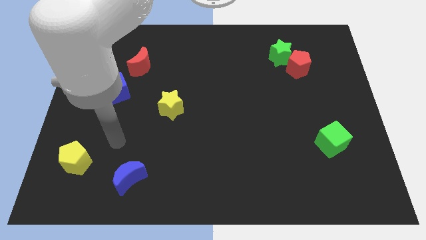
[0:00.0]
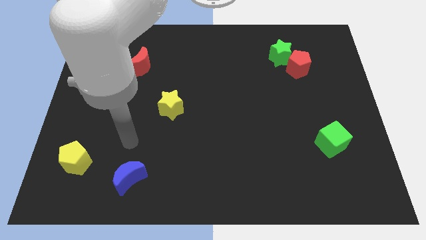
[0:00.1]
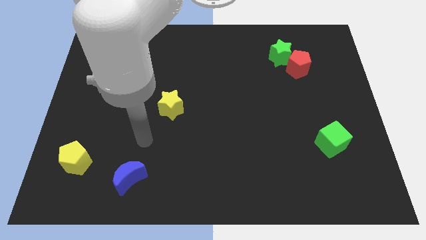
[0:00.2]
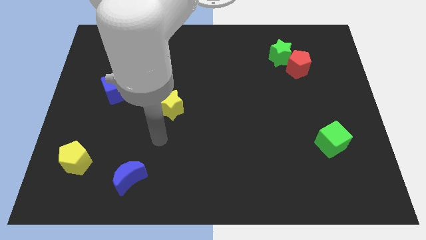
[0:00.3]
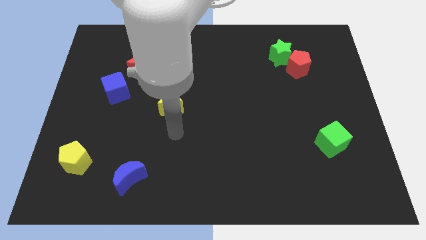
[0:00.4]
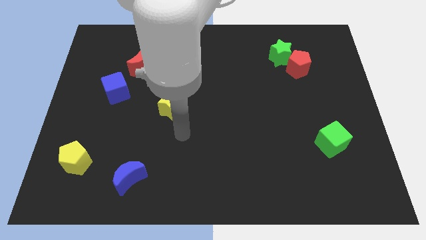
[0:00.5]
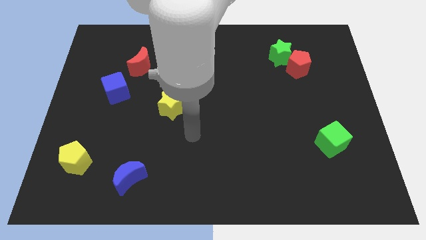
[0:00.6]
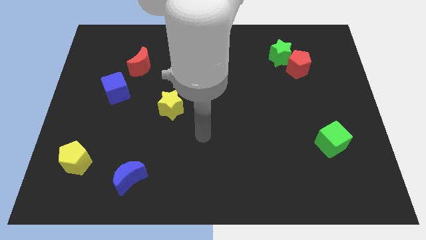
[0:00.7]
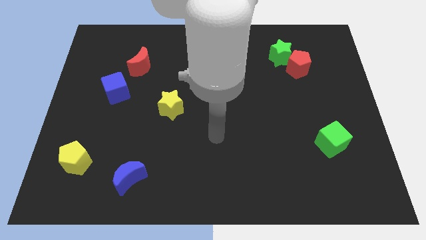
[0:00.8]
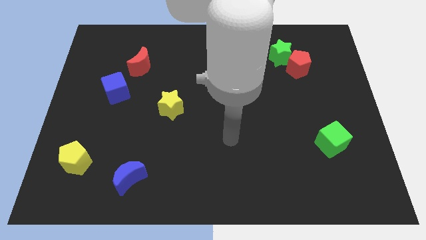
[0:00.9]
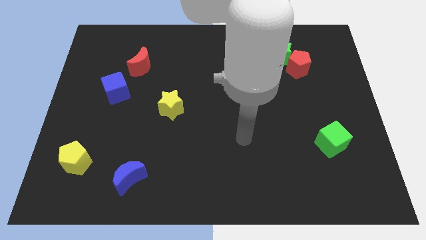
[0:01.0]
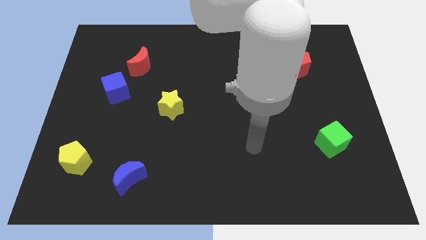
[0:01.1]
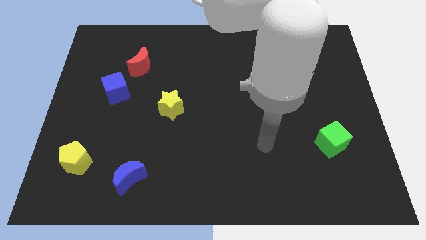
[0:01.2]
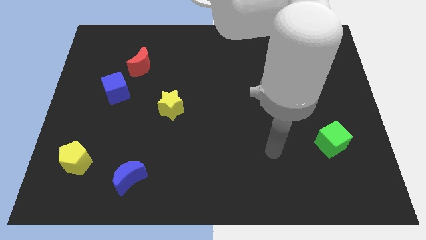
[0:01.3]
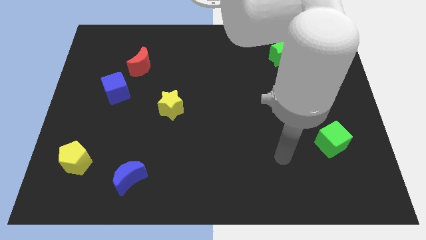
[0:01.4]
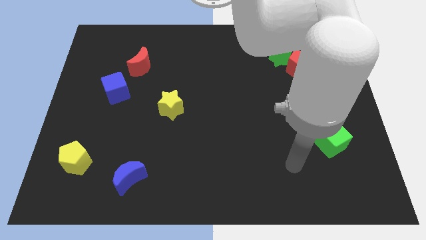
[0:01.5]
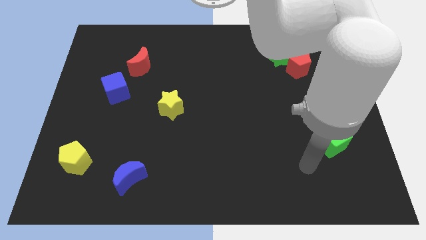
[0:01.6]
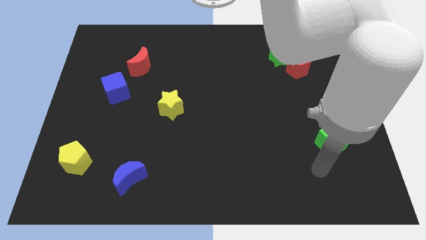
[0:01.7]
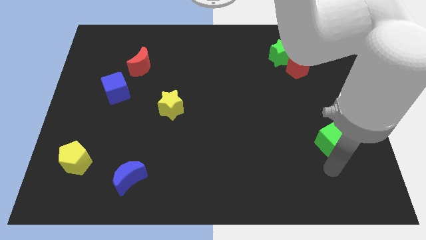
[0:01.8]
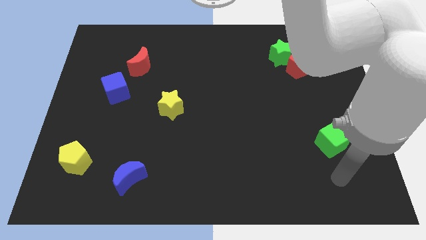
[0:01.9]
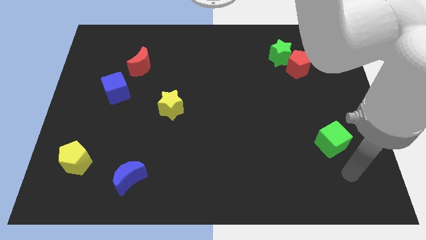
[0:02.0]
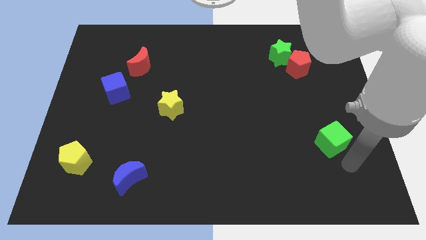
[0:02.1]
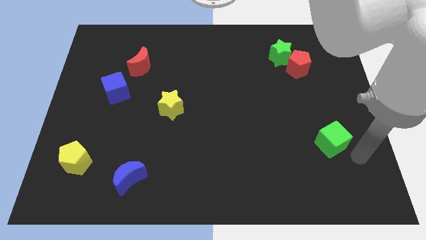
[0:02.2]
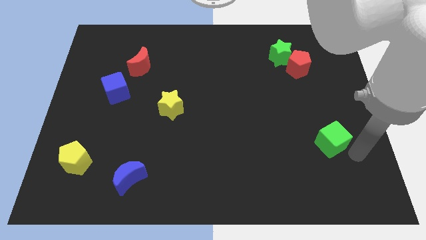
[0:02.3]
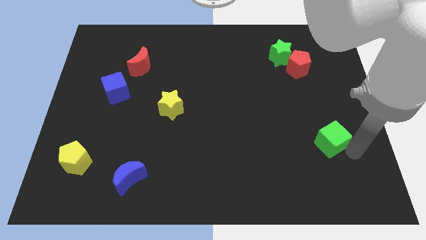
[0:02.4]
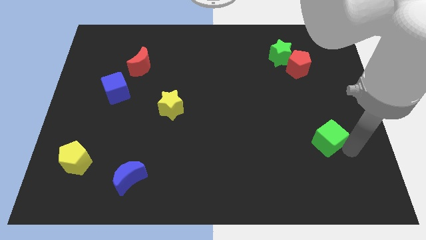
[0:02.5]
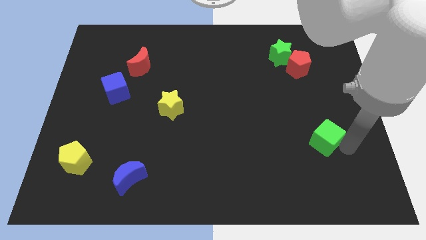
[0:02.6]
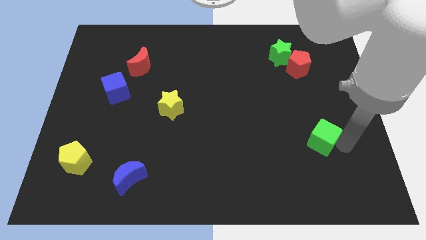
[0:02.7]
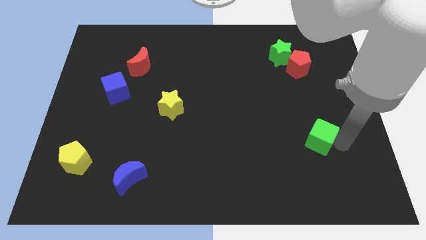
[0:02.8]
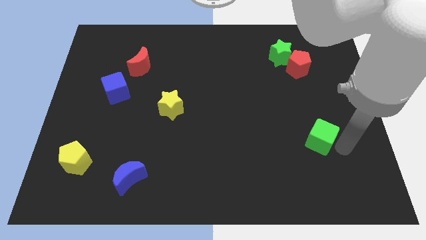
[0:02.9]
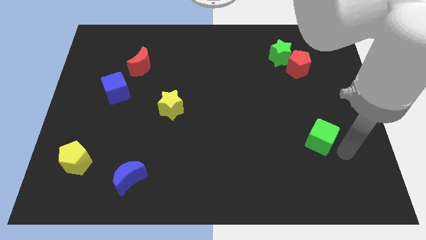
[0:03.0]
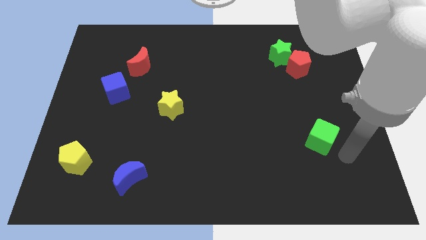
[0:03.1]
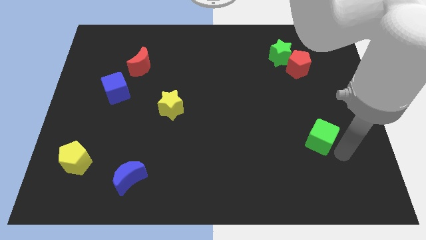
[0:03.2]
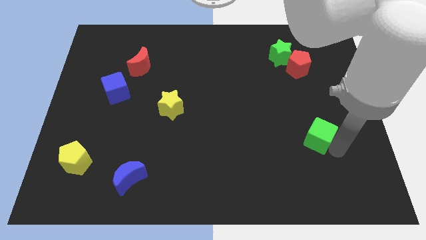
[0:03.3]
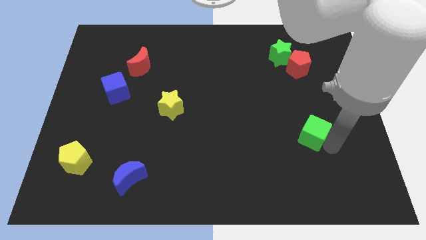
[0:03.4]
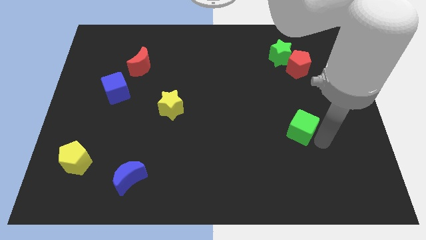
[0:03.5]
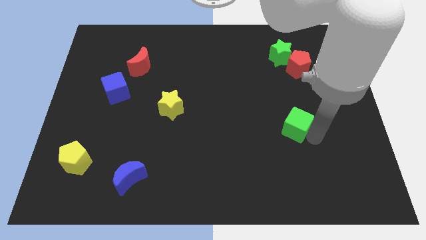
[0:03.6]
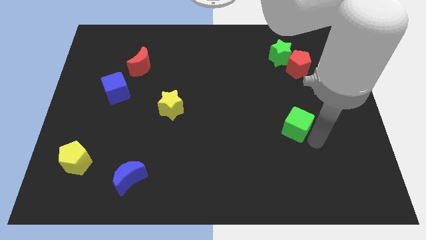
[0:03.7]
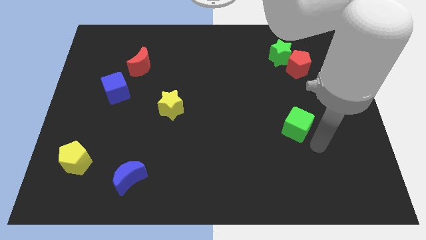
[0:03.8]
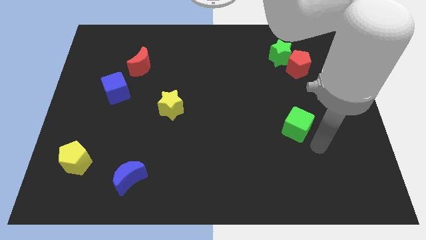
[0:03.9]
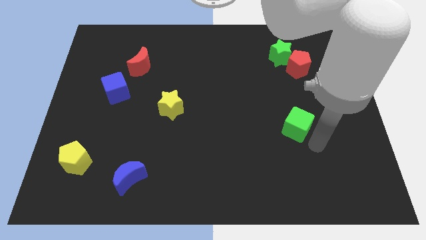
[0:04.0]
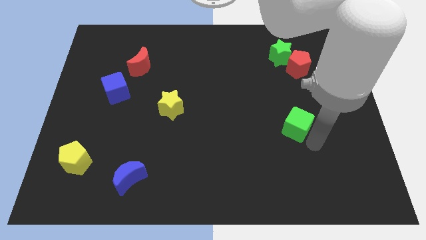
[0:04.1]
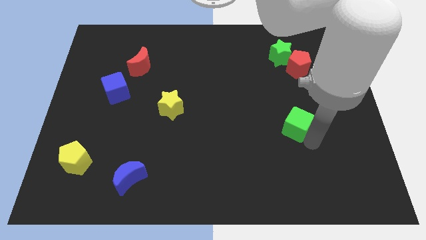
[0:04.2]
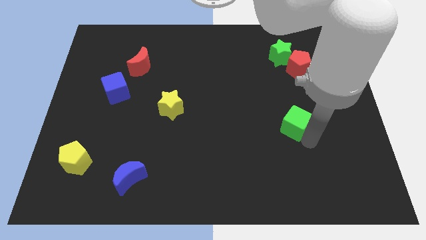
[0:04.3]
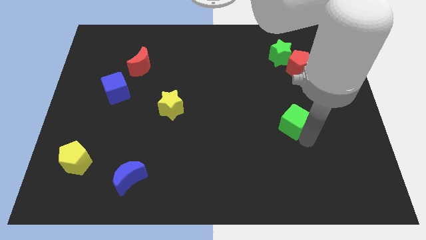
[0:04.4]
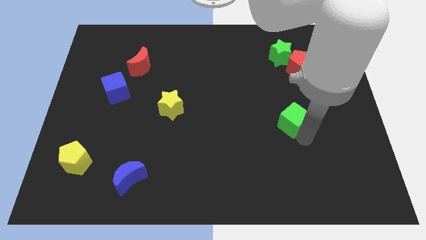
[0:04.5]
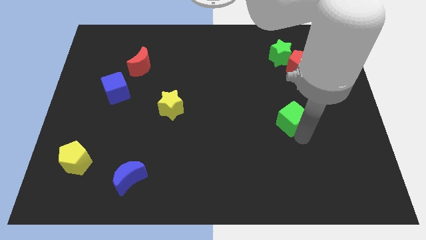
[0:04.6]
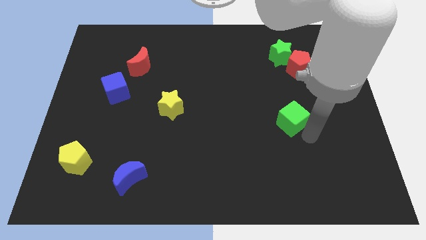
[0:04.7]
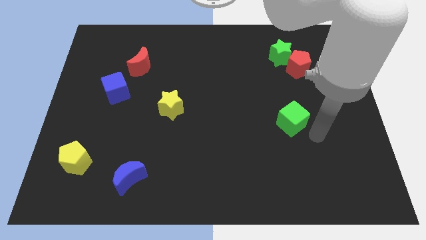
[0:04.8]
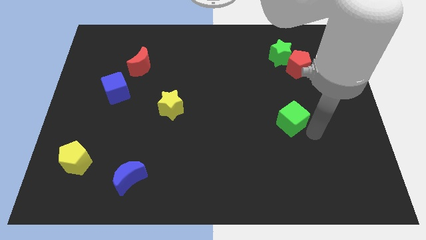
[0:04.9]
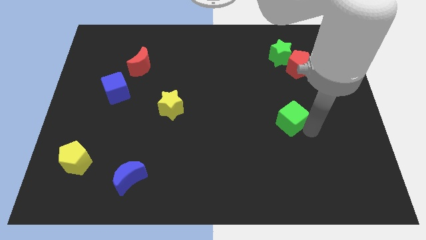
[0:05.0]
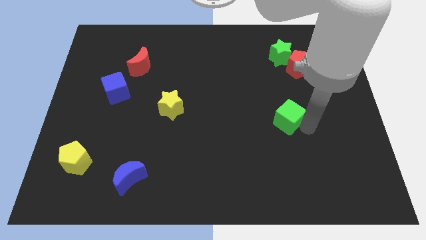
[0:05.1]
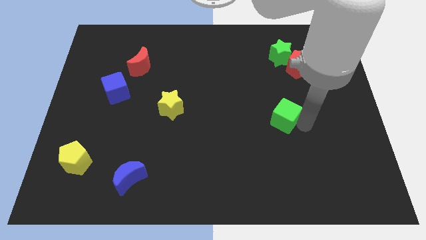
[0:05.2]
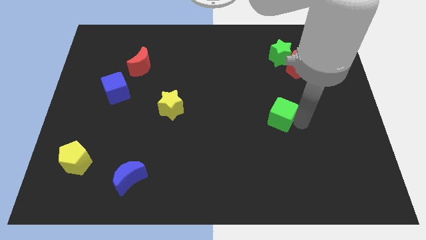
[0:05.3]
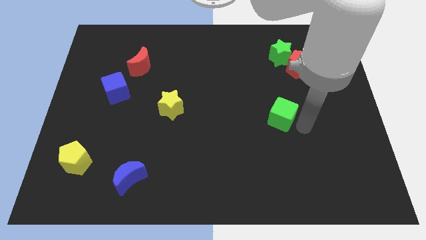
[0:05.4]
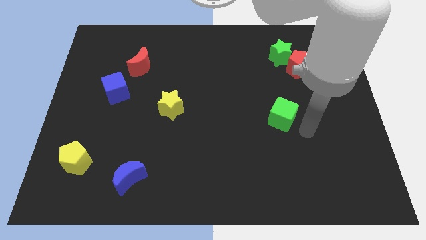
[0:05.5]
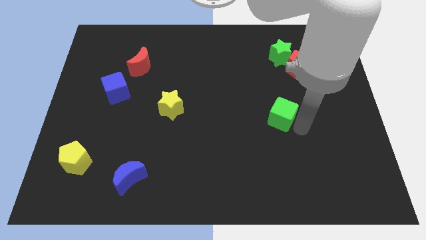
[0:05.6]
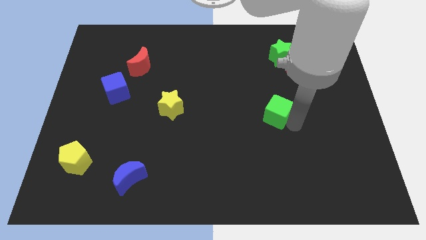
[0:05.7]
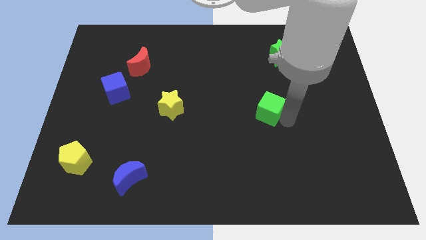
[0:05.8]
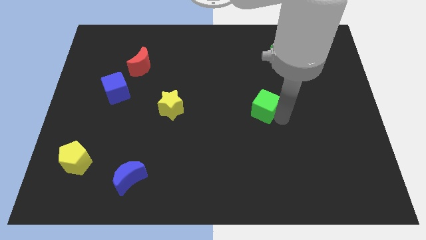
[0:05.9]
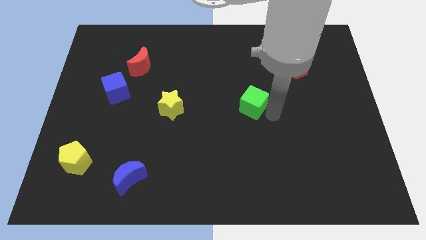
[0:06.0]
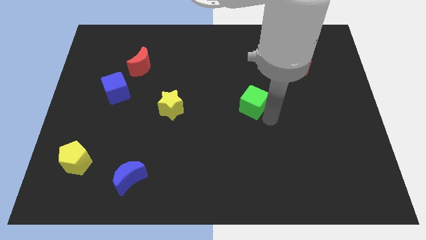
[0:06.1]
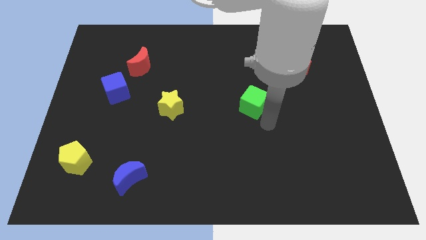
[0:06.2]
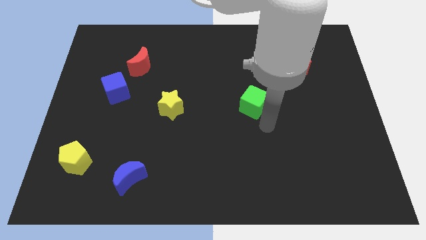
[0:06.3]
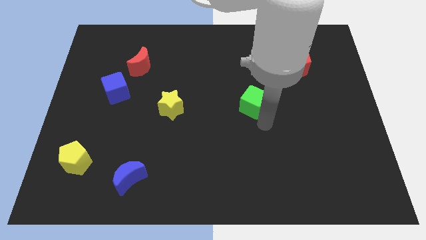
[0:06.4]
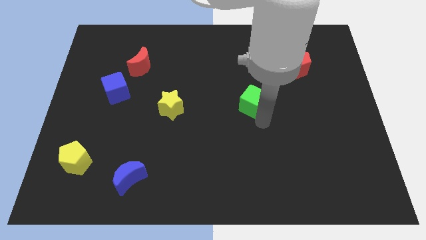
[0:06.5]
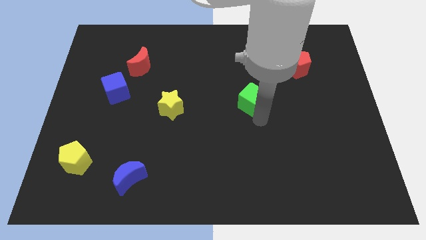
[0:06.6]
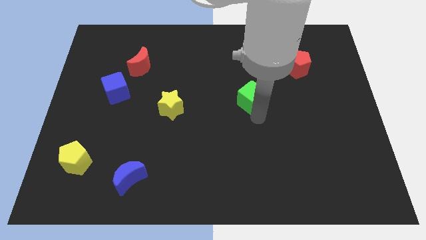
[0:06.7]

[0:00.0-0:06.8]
slide the green cube up and to the left diagonally

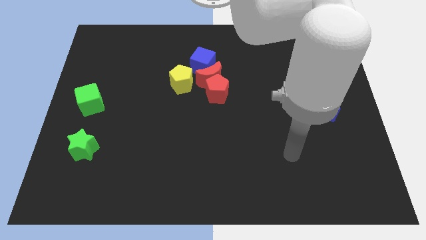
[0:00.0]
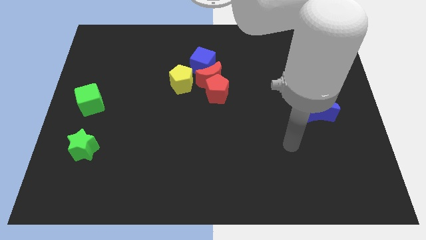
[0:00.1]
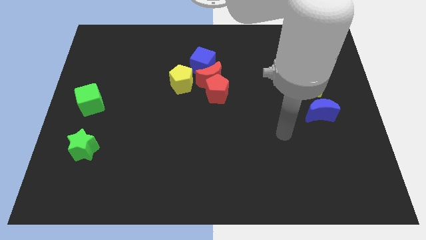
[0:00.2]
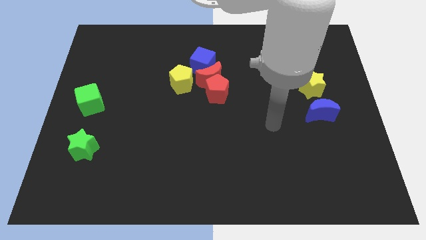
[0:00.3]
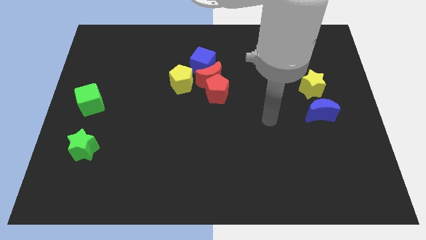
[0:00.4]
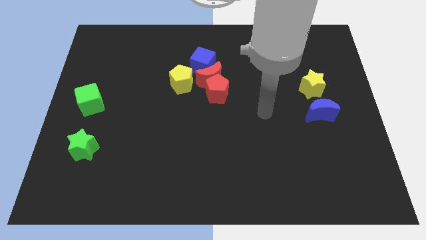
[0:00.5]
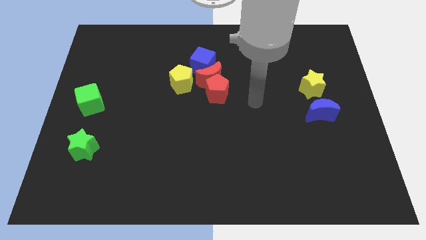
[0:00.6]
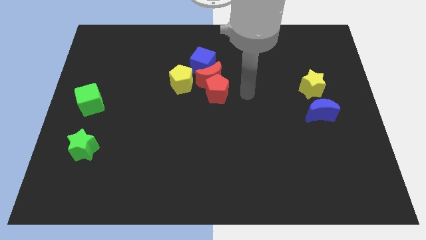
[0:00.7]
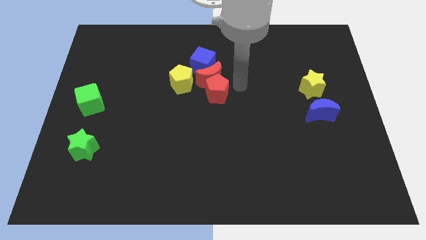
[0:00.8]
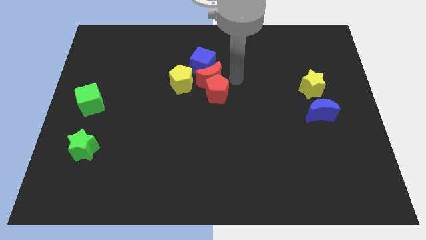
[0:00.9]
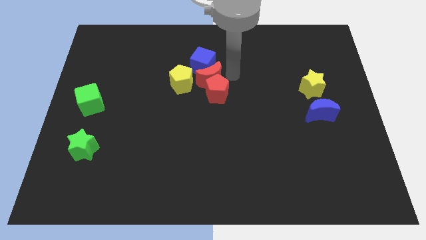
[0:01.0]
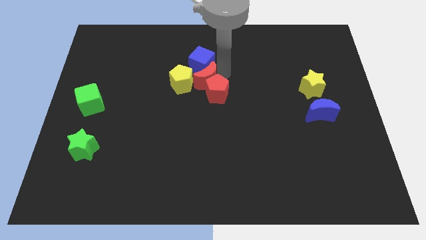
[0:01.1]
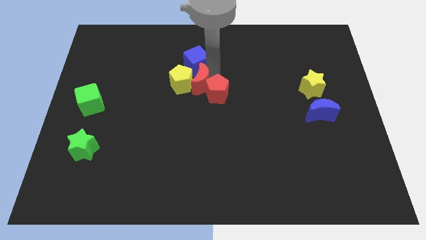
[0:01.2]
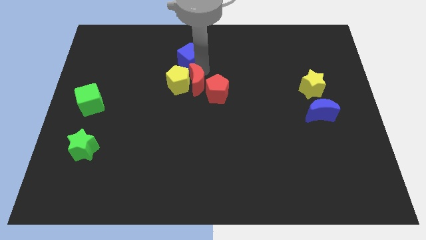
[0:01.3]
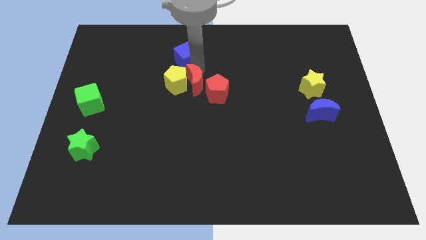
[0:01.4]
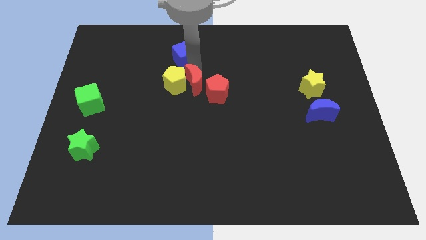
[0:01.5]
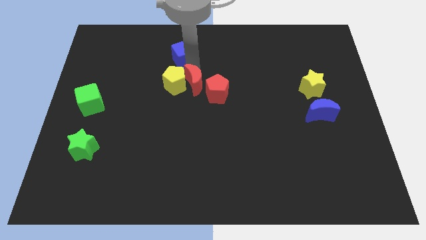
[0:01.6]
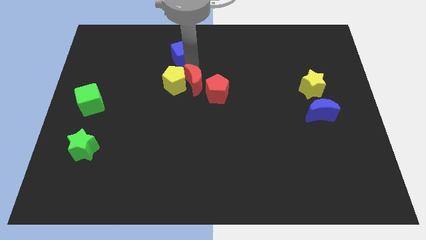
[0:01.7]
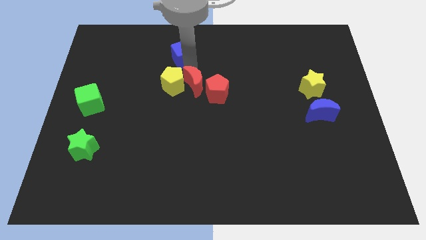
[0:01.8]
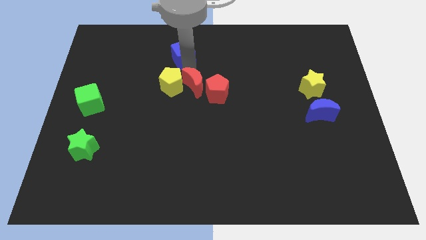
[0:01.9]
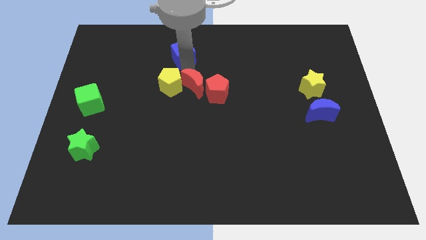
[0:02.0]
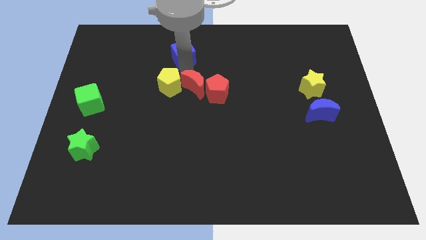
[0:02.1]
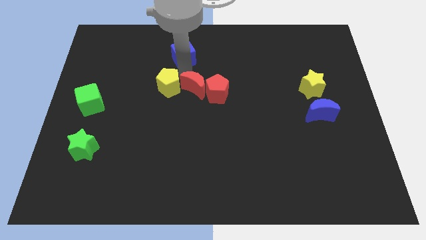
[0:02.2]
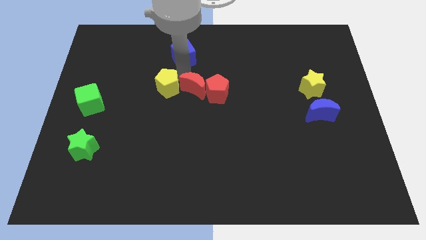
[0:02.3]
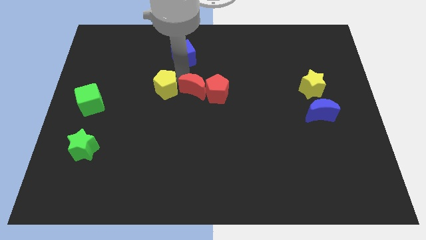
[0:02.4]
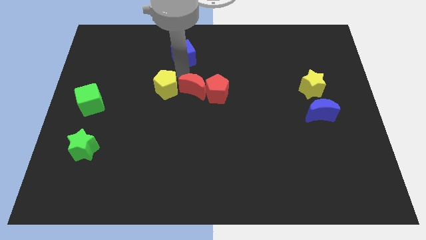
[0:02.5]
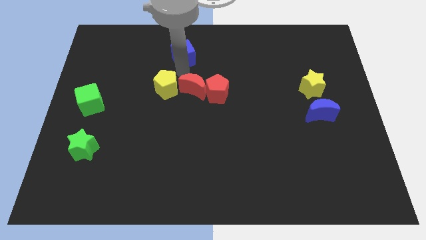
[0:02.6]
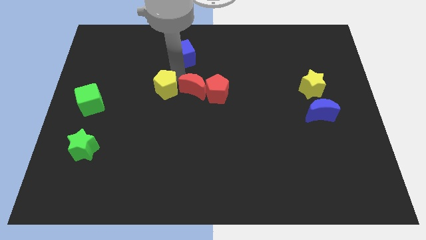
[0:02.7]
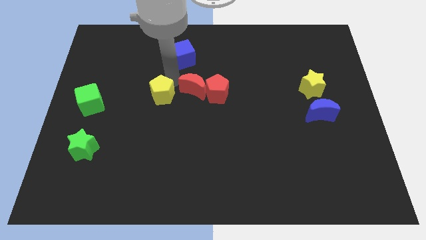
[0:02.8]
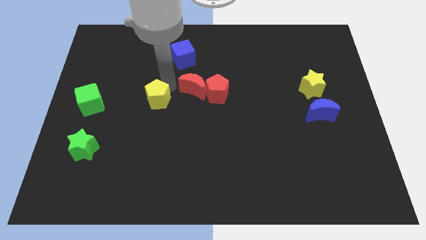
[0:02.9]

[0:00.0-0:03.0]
slightly move the yellow pentagon diagonally downwards and to the left
